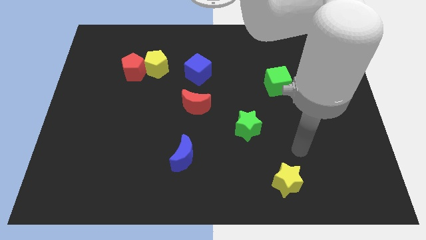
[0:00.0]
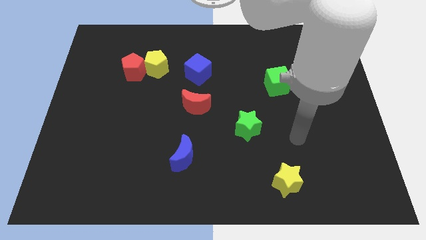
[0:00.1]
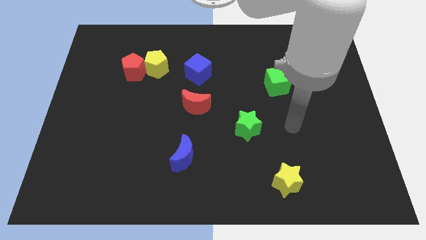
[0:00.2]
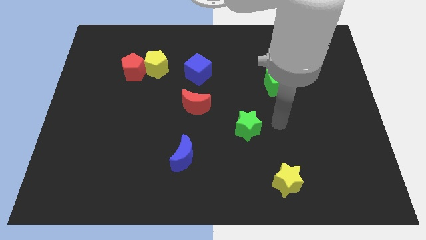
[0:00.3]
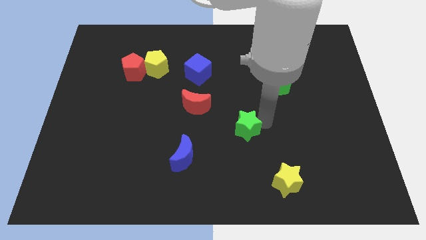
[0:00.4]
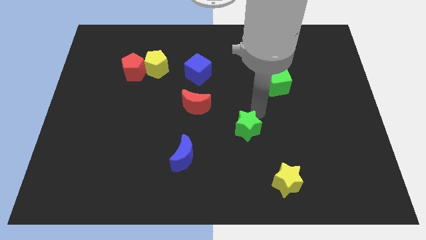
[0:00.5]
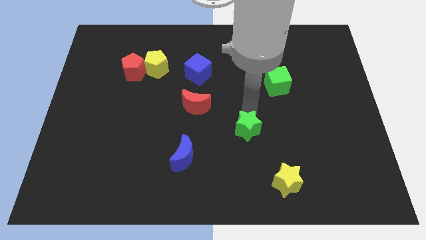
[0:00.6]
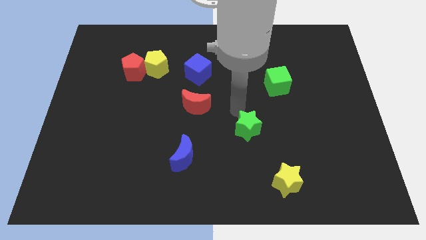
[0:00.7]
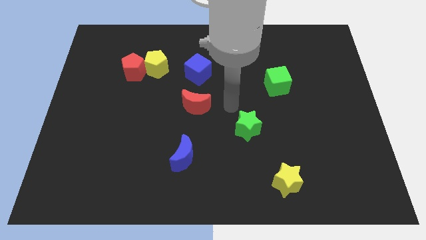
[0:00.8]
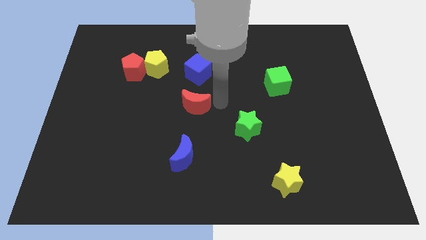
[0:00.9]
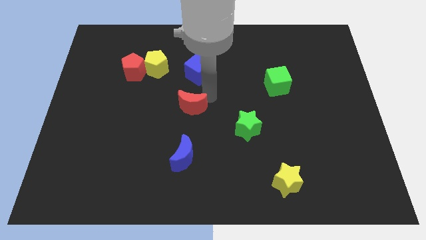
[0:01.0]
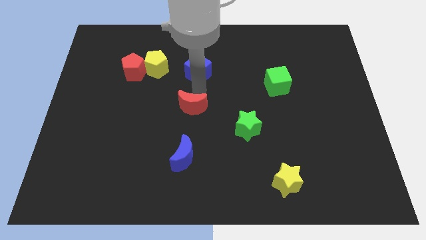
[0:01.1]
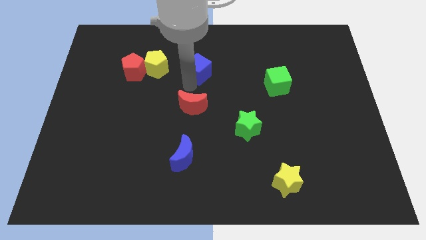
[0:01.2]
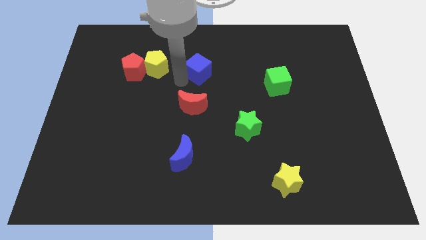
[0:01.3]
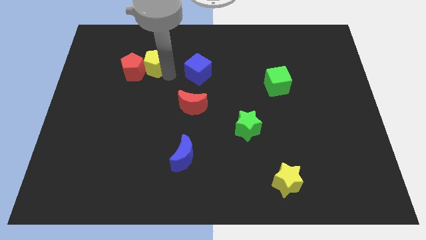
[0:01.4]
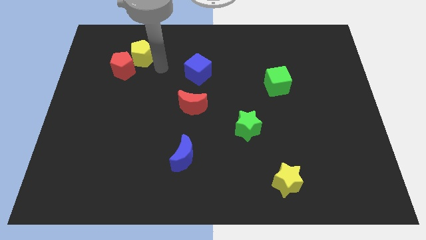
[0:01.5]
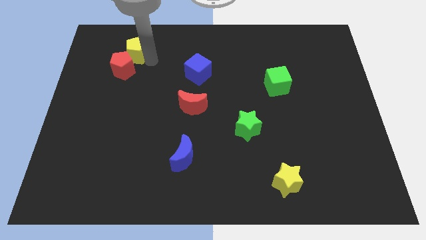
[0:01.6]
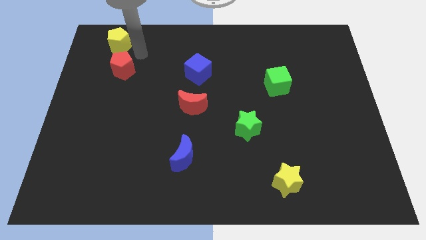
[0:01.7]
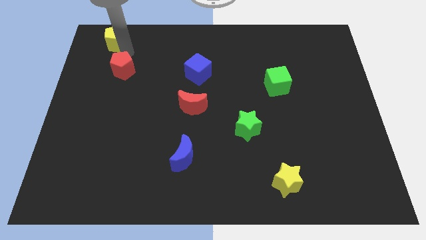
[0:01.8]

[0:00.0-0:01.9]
move the red pentagon away from the yellow pentagon

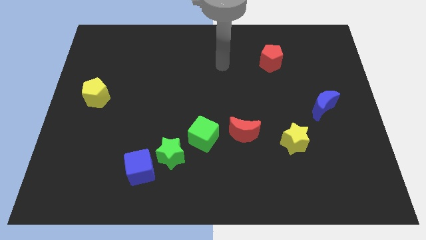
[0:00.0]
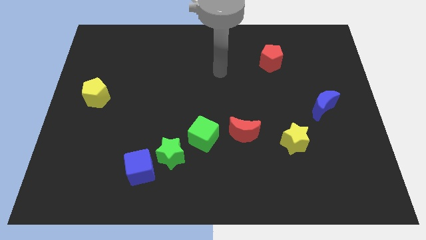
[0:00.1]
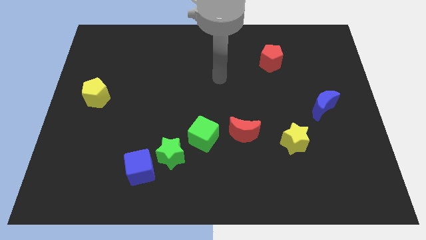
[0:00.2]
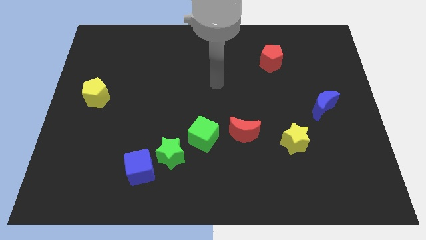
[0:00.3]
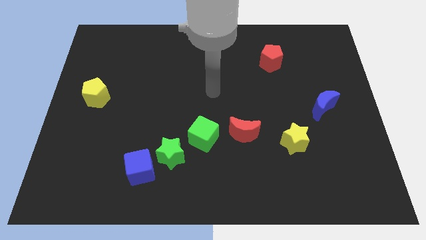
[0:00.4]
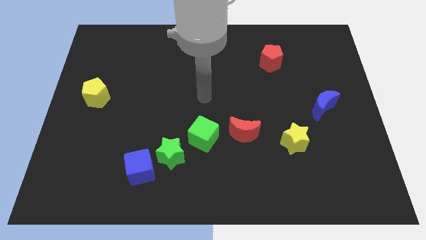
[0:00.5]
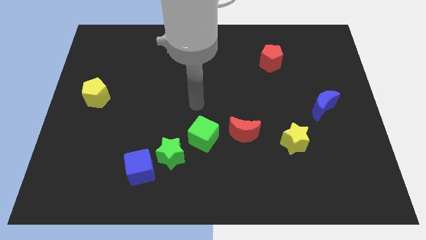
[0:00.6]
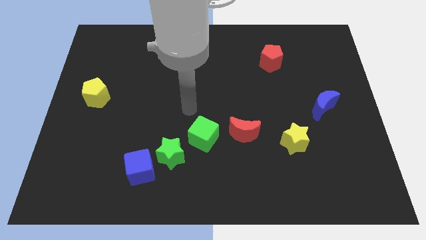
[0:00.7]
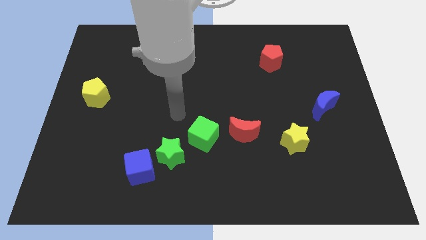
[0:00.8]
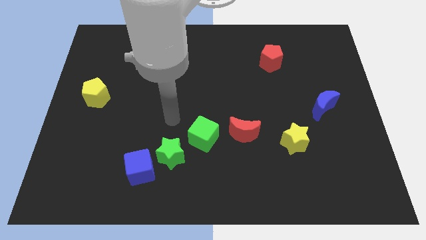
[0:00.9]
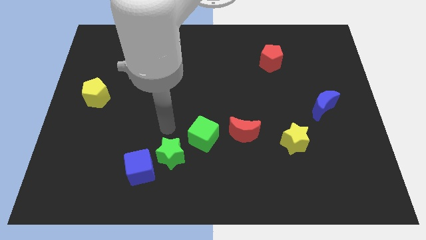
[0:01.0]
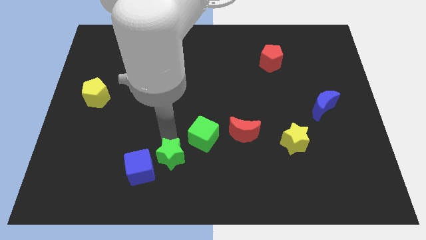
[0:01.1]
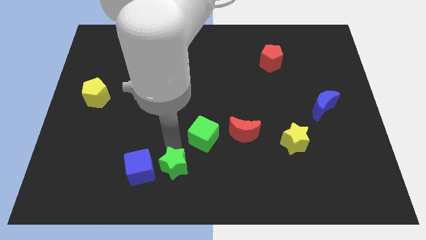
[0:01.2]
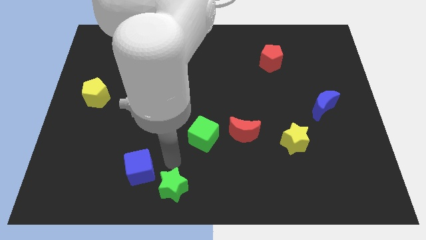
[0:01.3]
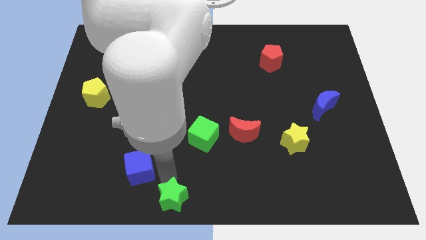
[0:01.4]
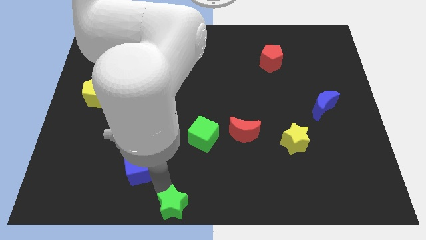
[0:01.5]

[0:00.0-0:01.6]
separate the blue cube from the green star

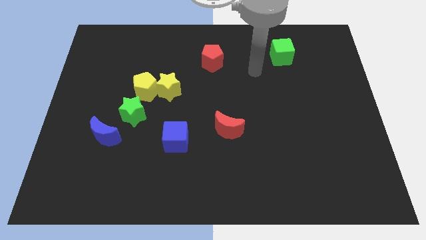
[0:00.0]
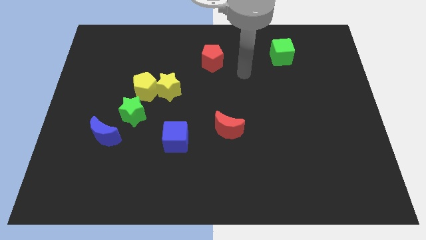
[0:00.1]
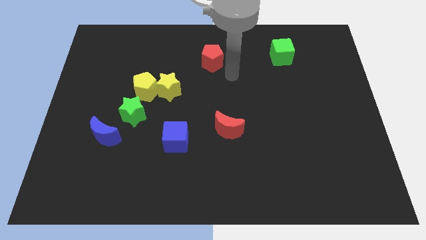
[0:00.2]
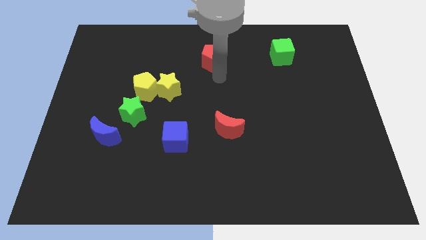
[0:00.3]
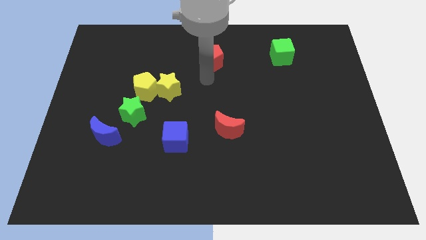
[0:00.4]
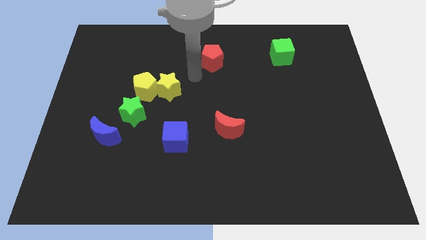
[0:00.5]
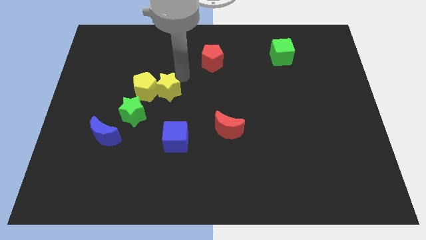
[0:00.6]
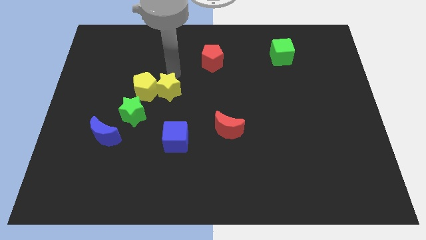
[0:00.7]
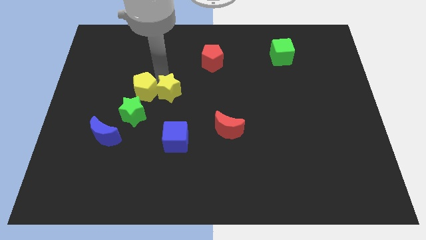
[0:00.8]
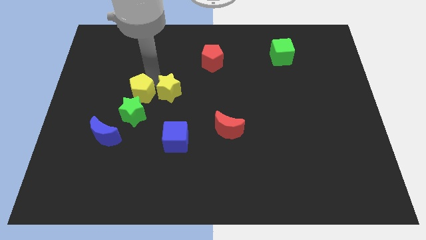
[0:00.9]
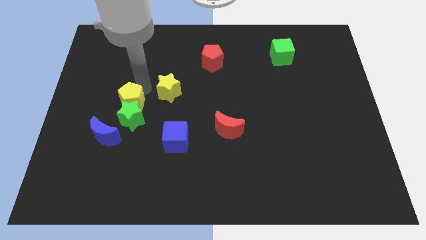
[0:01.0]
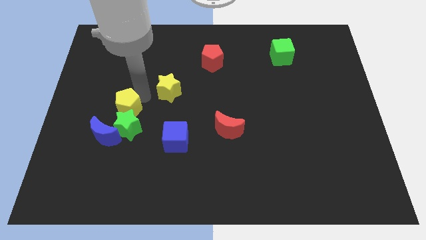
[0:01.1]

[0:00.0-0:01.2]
move the yellow star away from the yellow pentagon

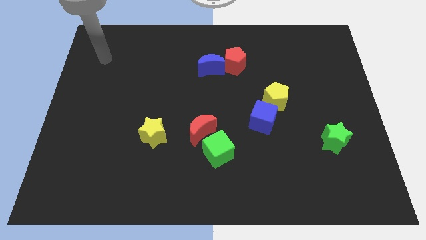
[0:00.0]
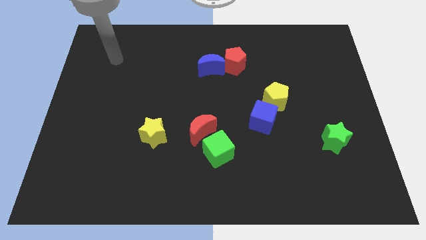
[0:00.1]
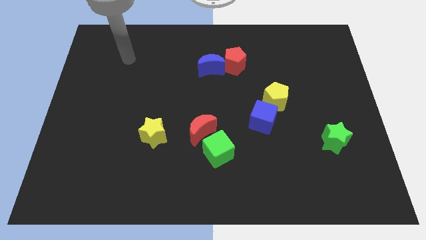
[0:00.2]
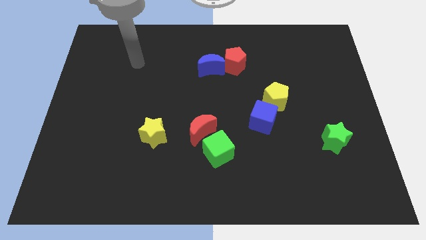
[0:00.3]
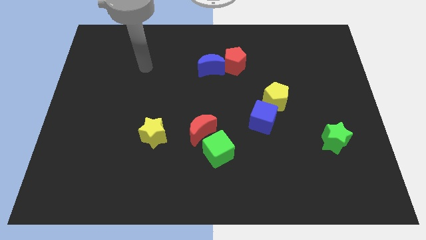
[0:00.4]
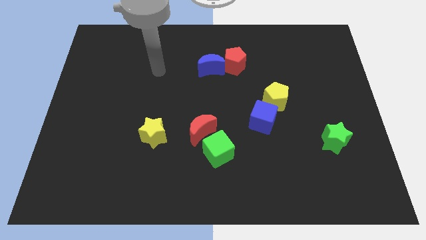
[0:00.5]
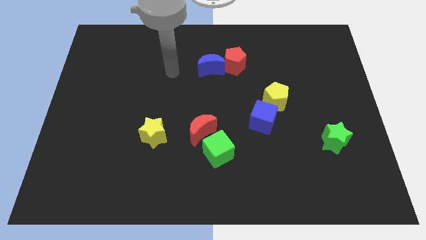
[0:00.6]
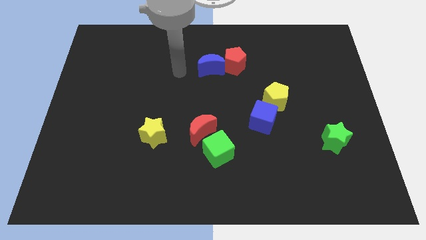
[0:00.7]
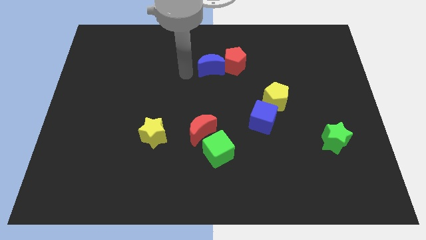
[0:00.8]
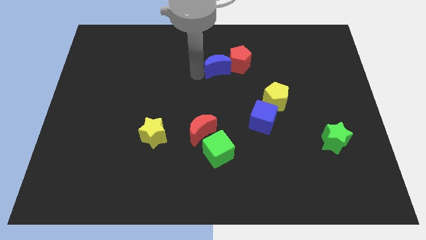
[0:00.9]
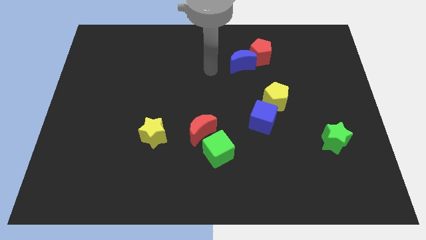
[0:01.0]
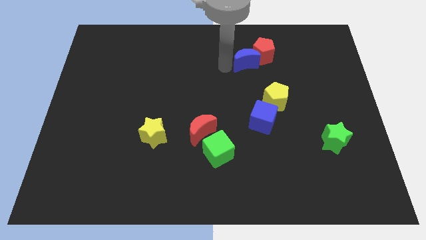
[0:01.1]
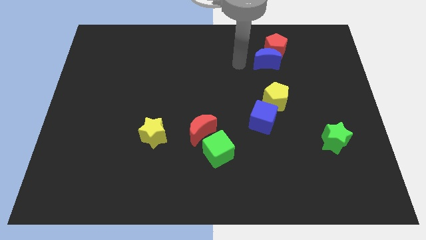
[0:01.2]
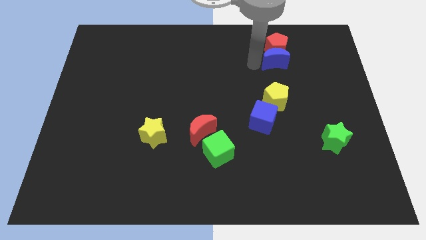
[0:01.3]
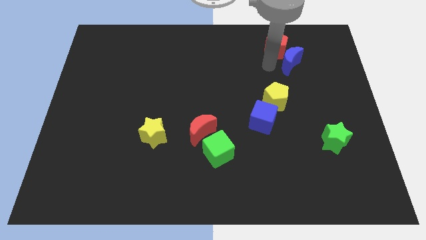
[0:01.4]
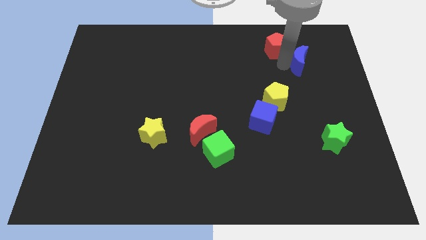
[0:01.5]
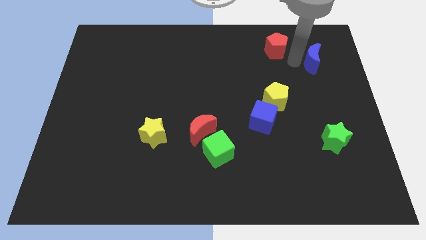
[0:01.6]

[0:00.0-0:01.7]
pull the red pentagon apart from the blue moon

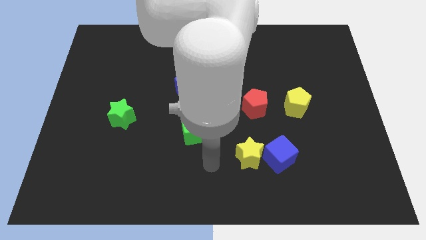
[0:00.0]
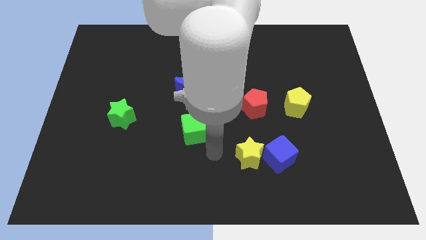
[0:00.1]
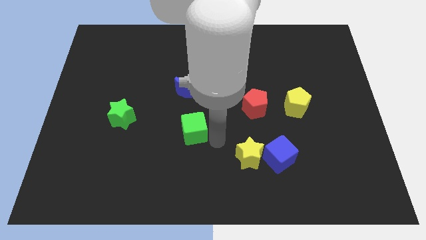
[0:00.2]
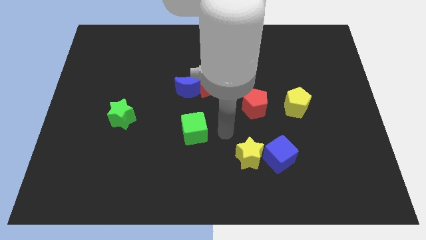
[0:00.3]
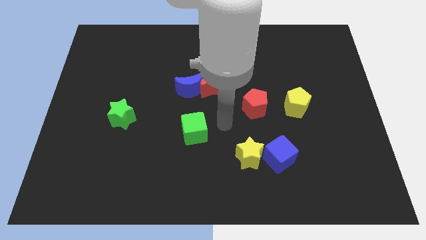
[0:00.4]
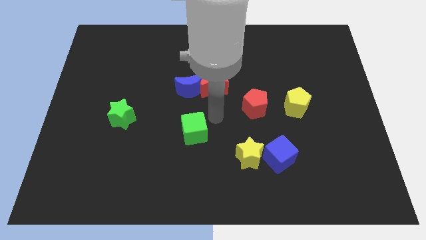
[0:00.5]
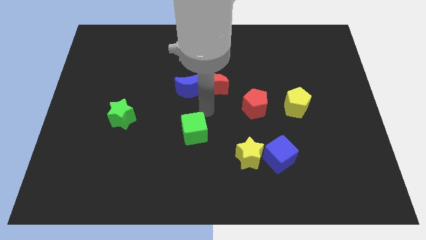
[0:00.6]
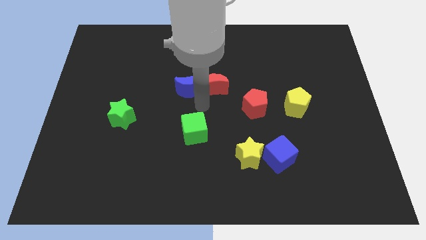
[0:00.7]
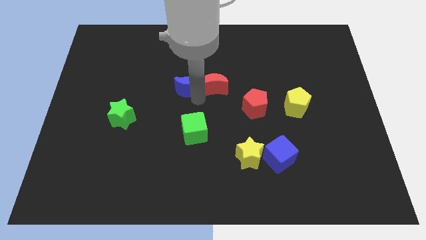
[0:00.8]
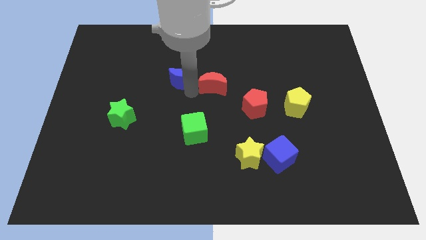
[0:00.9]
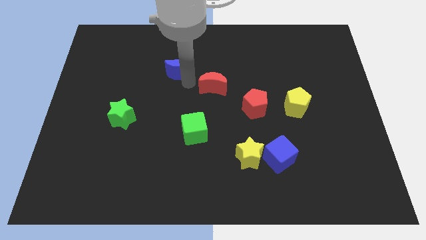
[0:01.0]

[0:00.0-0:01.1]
pull the red moon apart from the blue moon

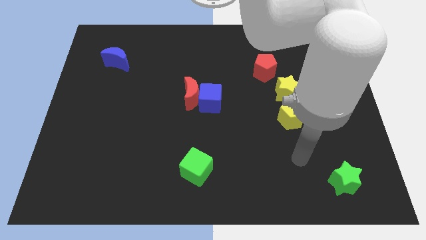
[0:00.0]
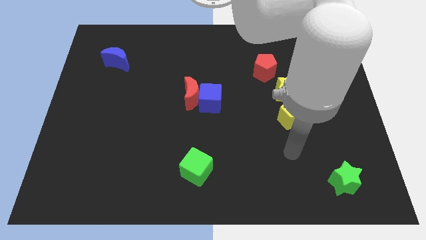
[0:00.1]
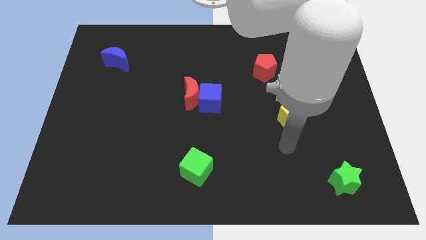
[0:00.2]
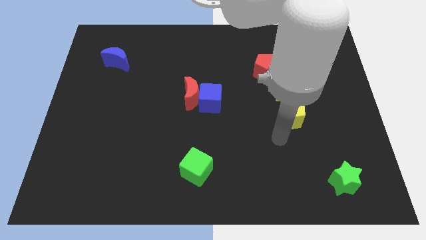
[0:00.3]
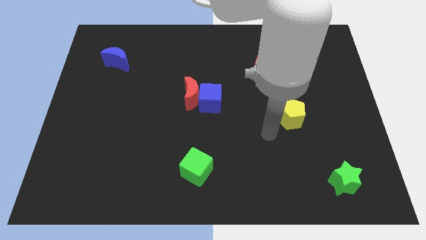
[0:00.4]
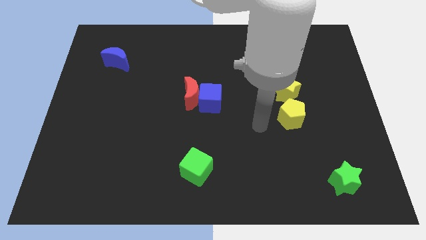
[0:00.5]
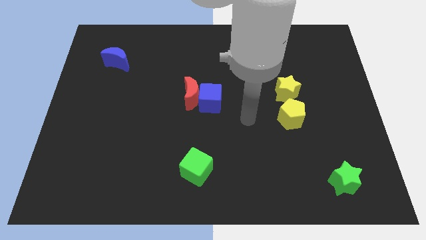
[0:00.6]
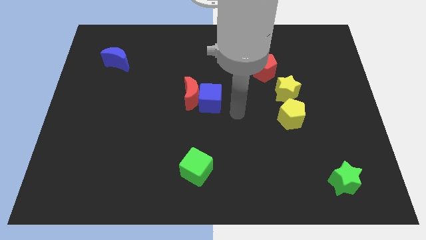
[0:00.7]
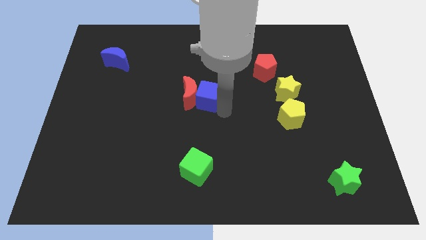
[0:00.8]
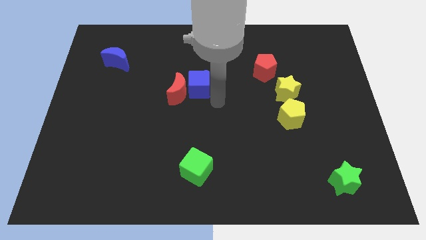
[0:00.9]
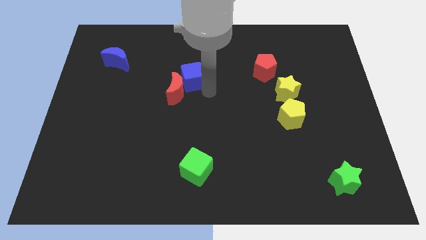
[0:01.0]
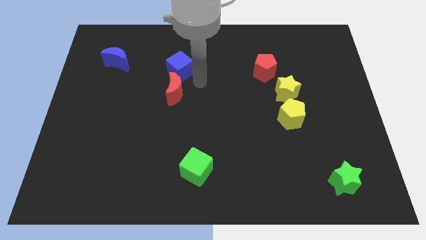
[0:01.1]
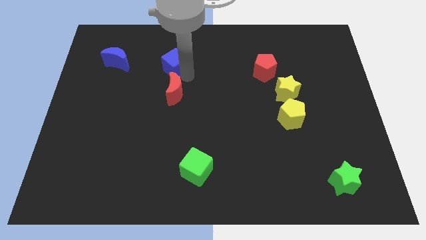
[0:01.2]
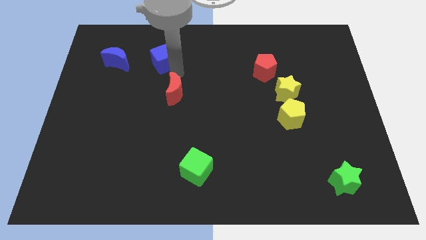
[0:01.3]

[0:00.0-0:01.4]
separate the red moon from the blue cube

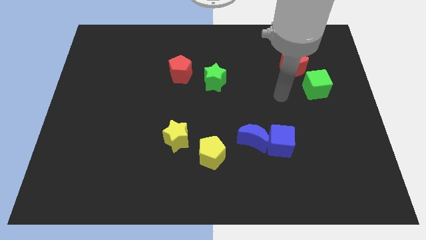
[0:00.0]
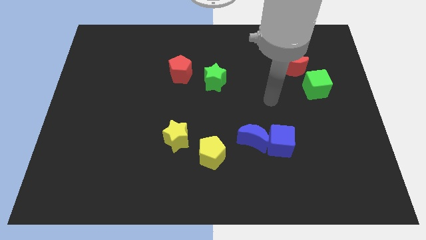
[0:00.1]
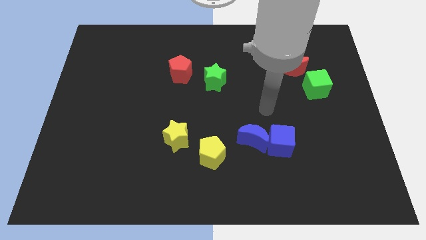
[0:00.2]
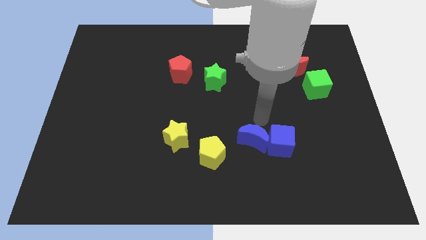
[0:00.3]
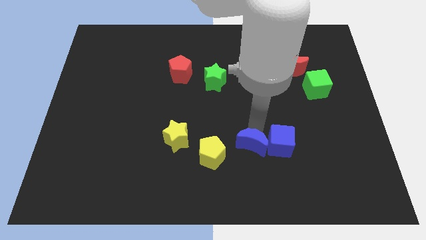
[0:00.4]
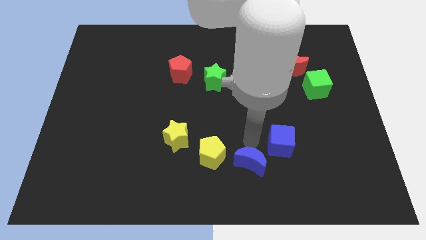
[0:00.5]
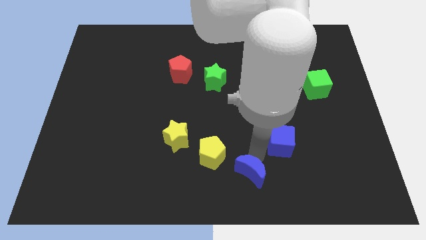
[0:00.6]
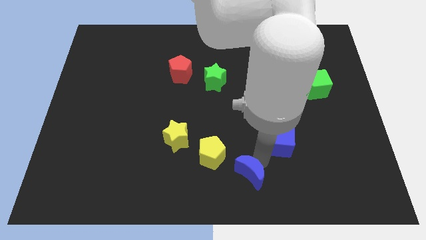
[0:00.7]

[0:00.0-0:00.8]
pull the blue cube apart from the blue moon
